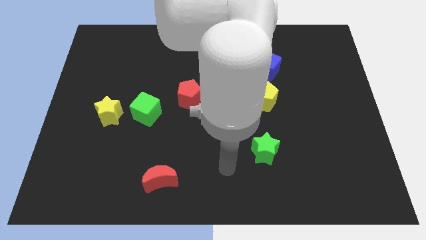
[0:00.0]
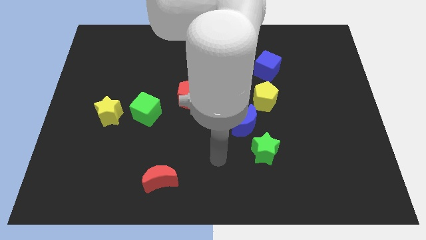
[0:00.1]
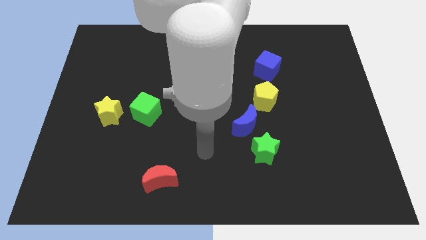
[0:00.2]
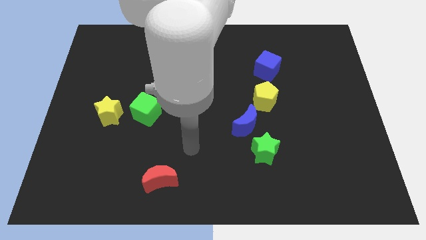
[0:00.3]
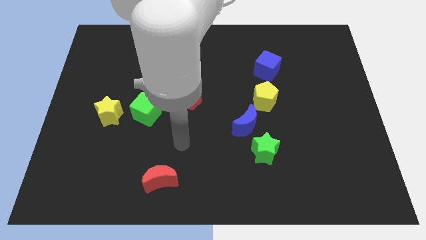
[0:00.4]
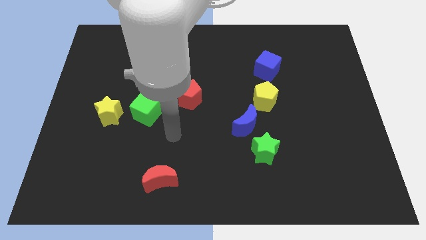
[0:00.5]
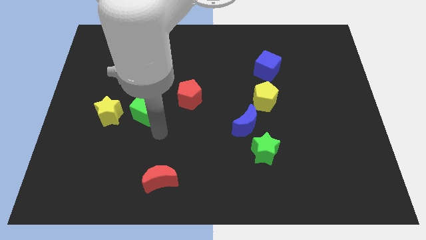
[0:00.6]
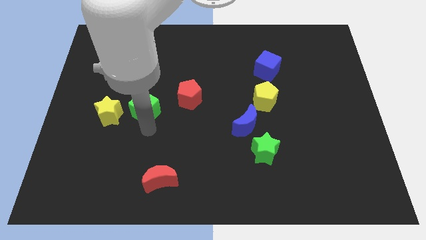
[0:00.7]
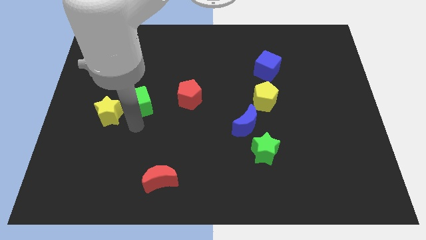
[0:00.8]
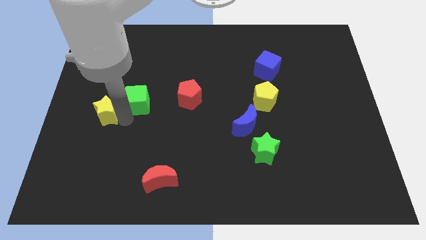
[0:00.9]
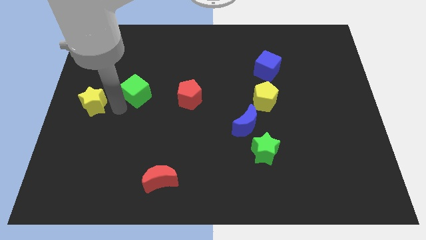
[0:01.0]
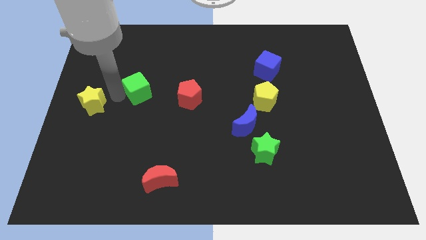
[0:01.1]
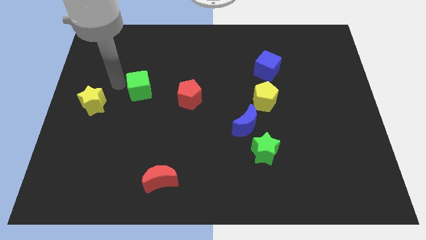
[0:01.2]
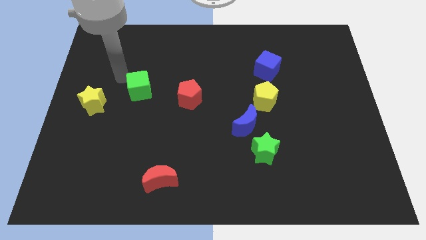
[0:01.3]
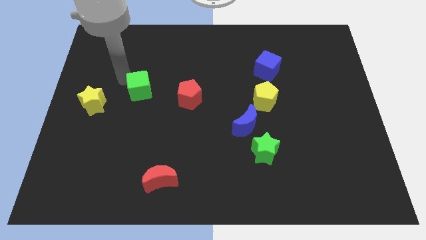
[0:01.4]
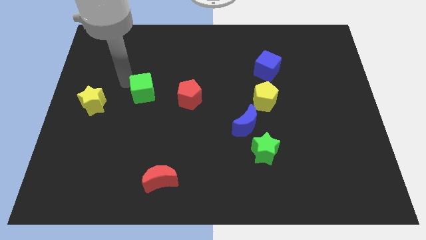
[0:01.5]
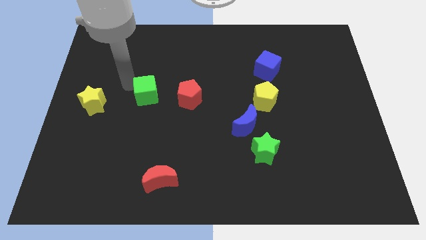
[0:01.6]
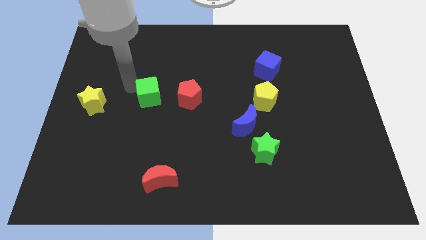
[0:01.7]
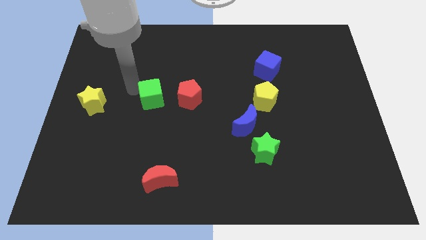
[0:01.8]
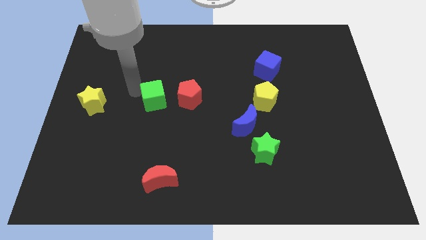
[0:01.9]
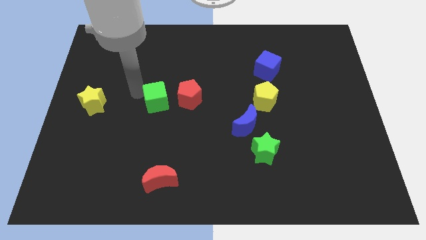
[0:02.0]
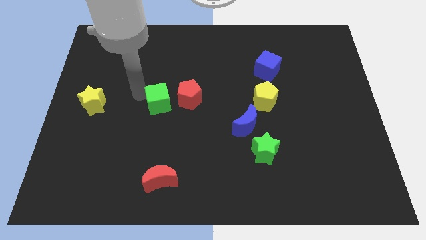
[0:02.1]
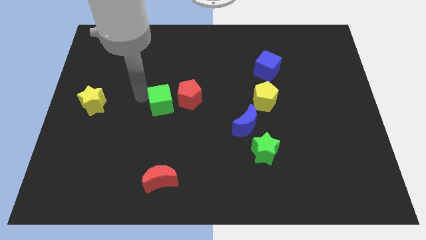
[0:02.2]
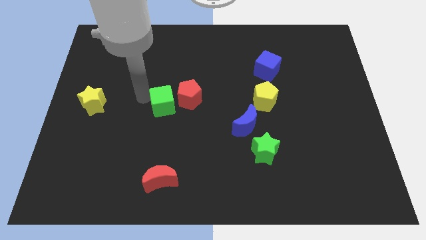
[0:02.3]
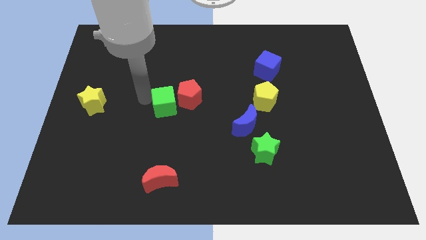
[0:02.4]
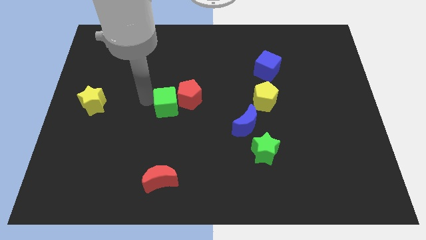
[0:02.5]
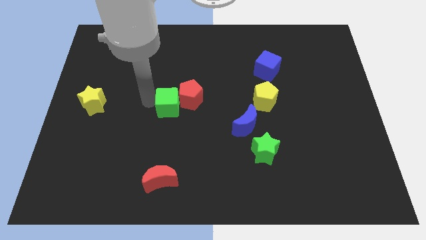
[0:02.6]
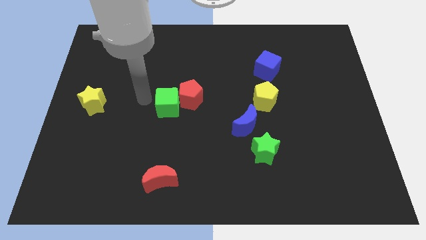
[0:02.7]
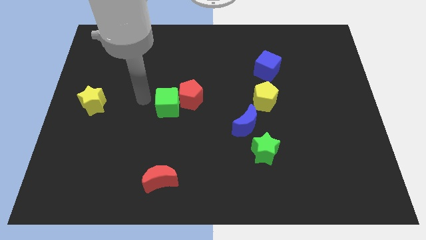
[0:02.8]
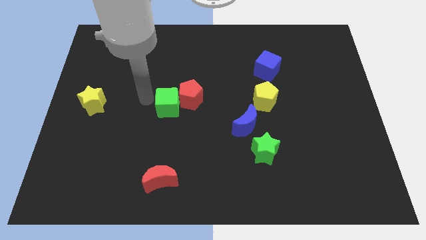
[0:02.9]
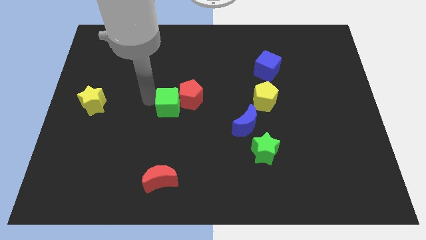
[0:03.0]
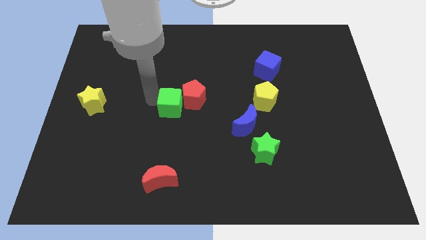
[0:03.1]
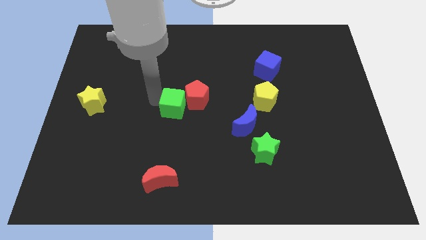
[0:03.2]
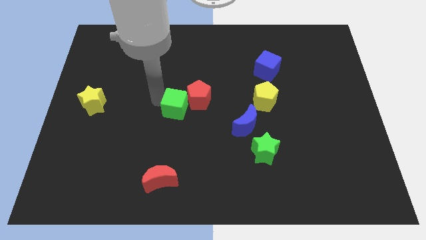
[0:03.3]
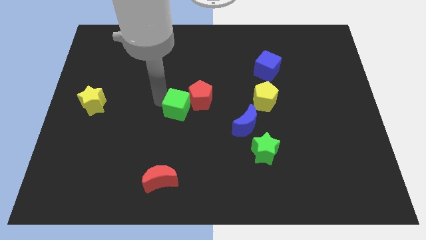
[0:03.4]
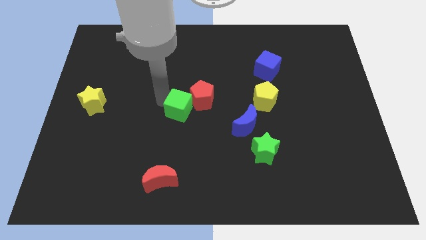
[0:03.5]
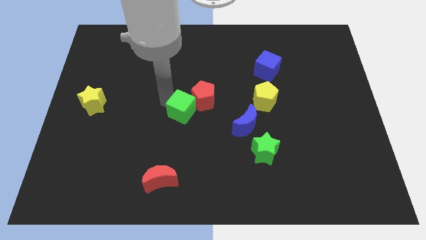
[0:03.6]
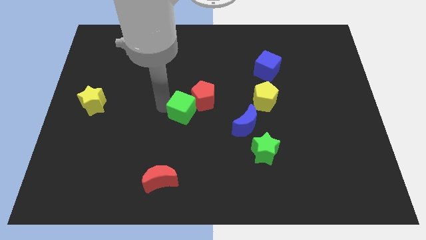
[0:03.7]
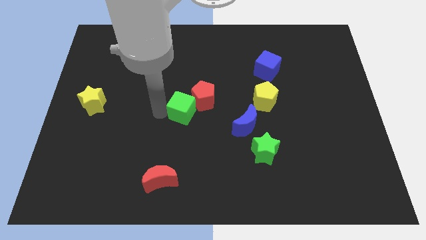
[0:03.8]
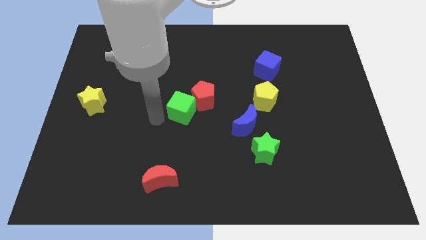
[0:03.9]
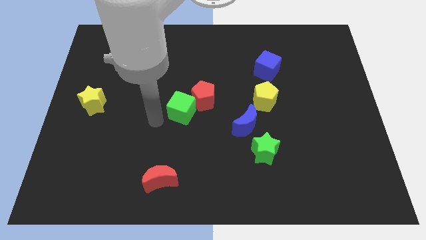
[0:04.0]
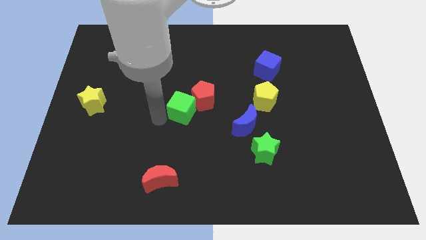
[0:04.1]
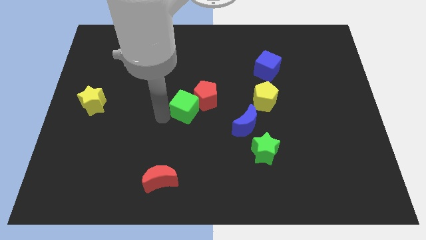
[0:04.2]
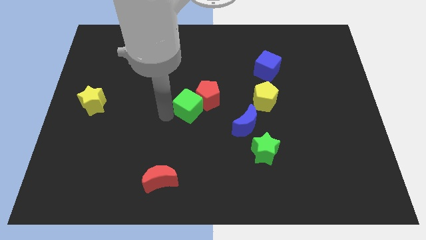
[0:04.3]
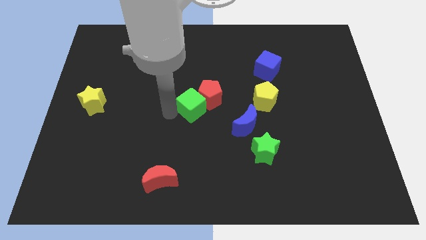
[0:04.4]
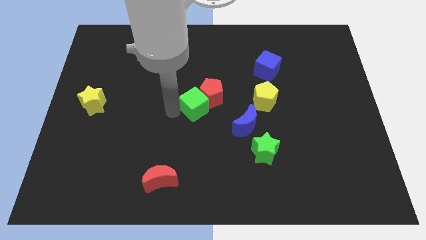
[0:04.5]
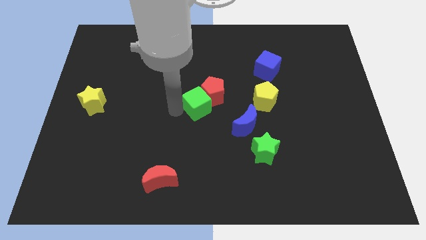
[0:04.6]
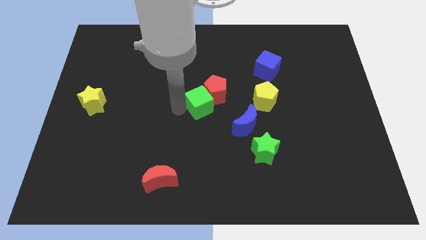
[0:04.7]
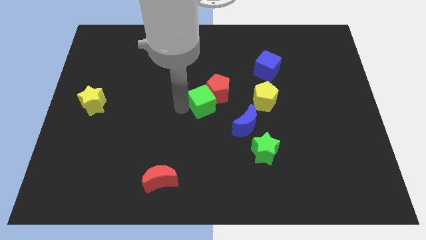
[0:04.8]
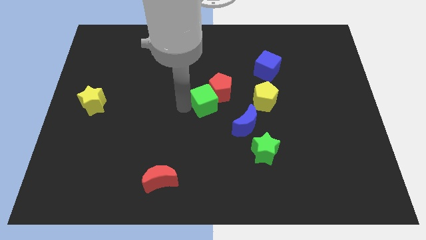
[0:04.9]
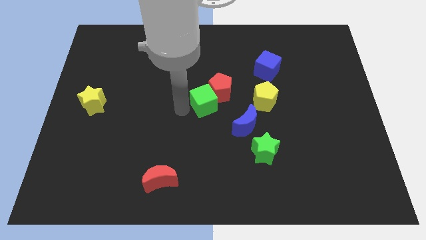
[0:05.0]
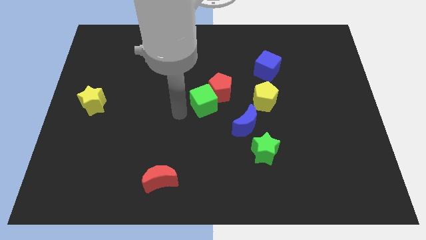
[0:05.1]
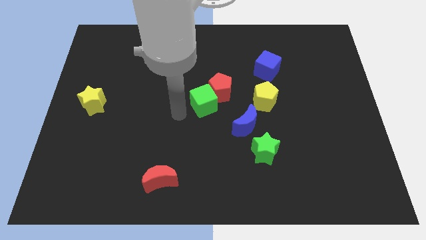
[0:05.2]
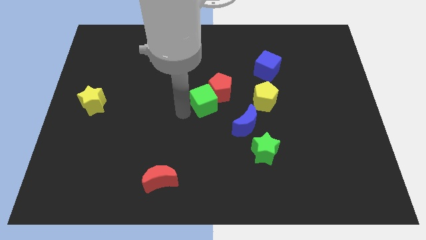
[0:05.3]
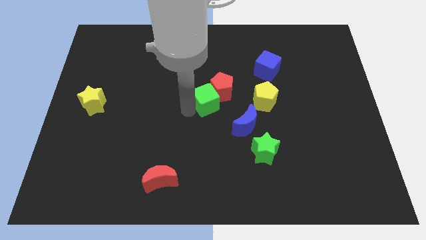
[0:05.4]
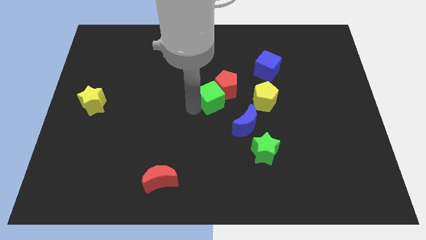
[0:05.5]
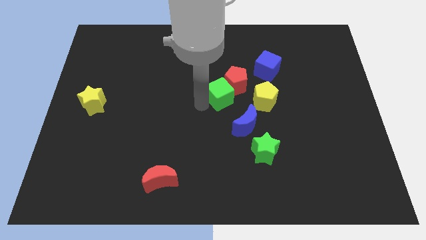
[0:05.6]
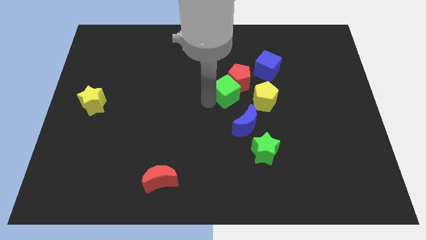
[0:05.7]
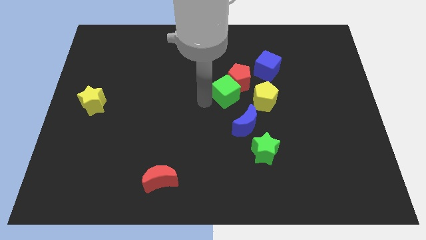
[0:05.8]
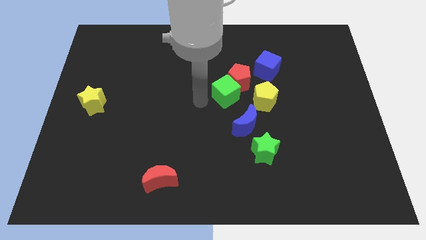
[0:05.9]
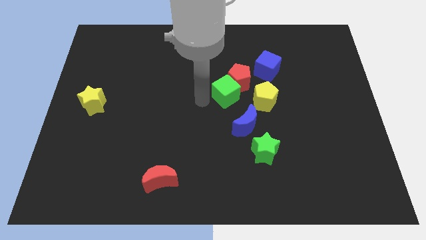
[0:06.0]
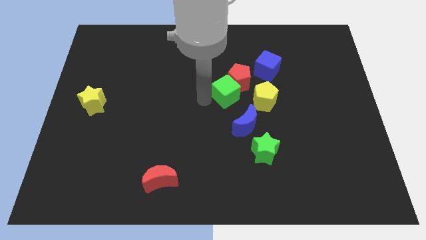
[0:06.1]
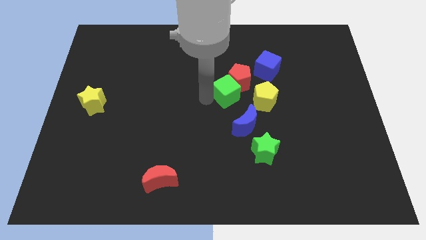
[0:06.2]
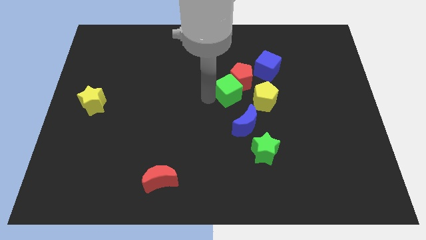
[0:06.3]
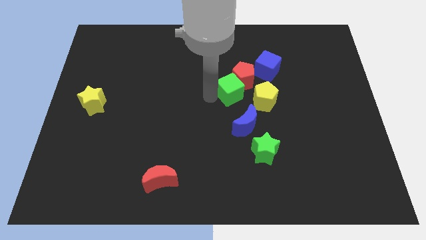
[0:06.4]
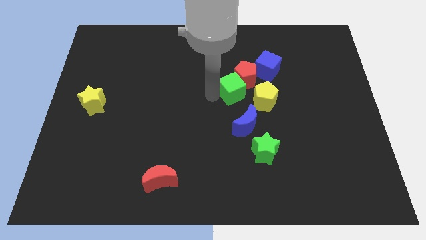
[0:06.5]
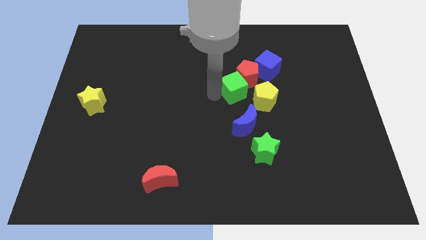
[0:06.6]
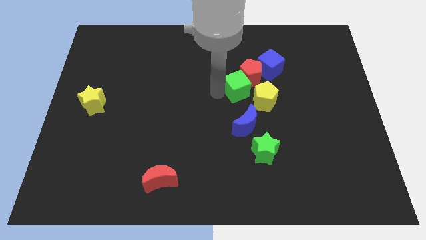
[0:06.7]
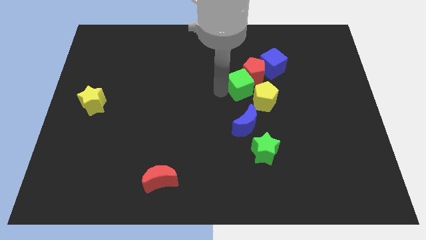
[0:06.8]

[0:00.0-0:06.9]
slide the green cube right

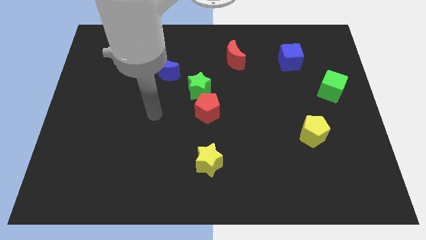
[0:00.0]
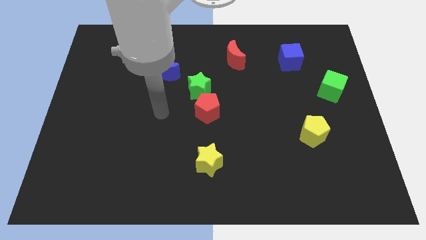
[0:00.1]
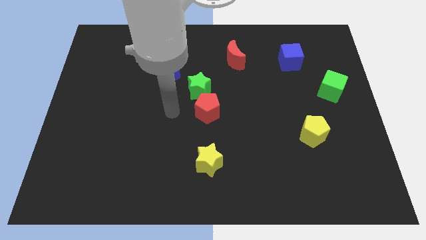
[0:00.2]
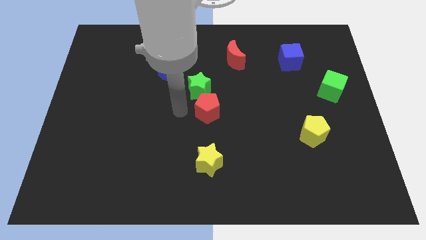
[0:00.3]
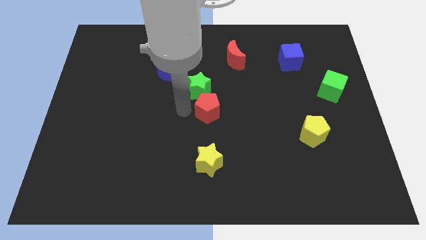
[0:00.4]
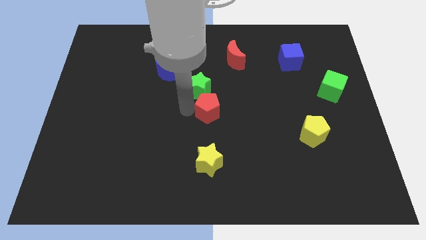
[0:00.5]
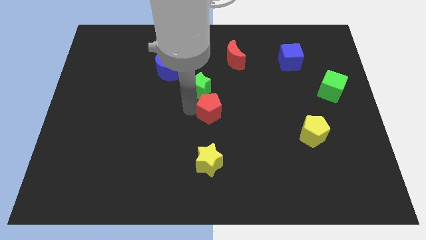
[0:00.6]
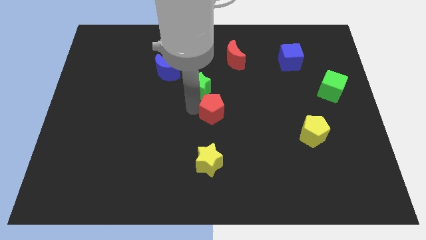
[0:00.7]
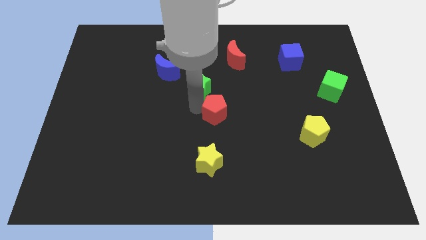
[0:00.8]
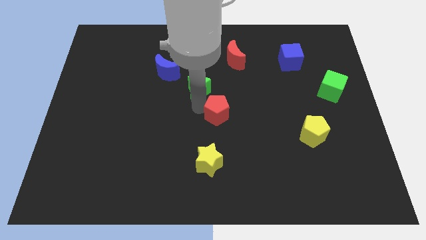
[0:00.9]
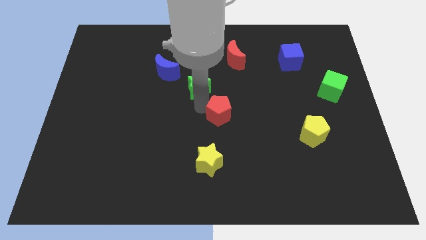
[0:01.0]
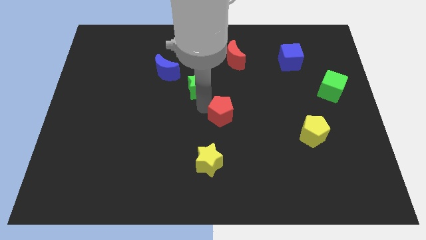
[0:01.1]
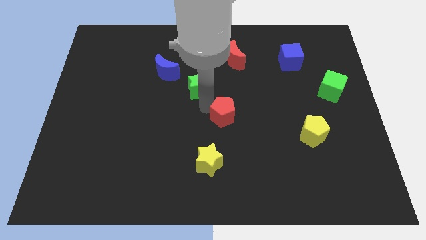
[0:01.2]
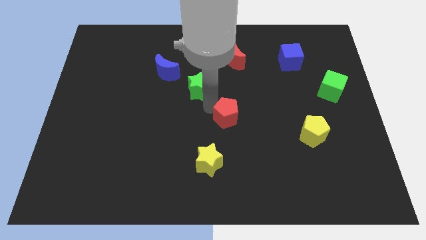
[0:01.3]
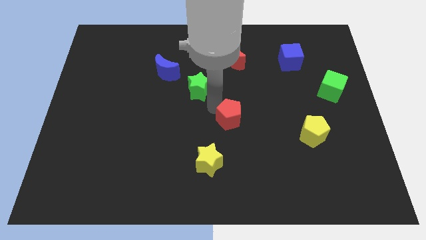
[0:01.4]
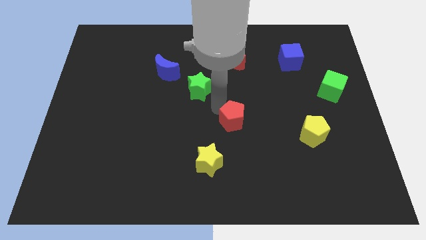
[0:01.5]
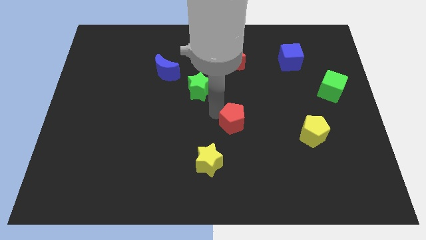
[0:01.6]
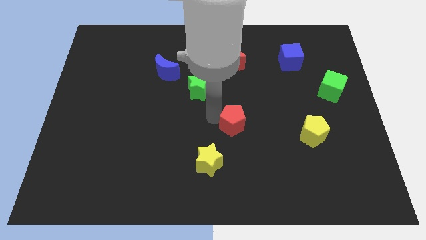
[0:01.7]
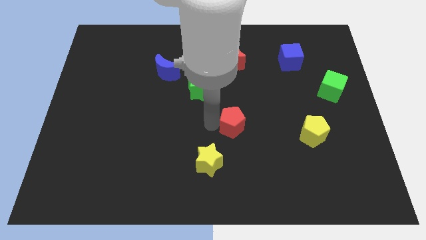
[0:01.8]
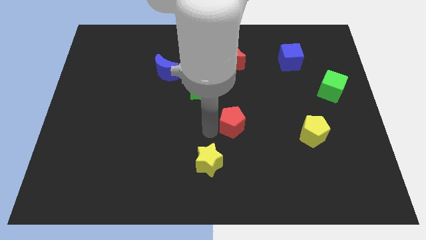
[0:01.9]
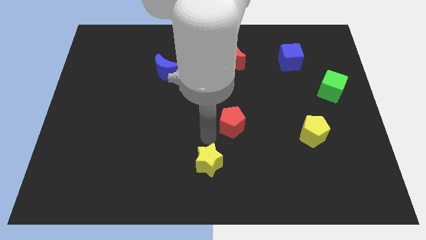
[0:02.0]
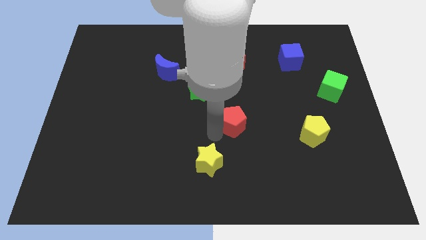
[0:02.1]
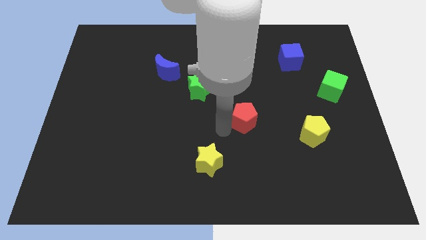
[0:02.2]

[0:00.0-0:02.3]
move the red pentagon to the right a little
